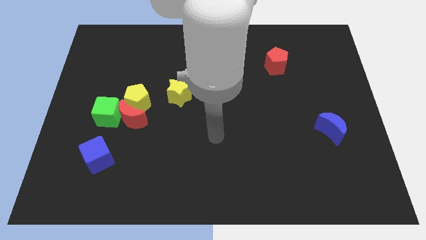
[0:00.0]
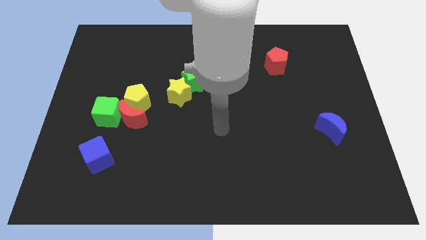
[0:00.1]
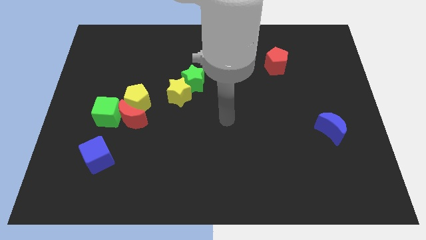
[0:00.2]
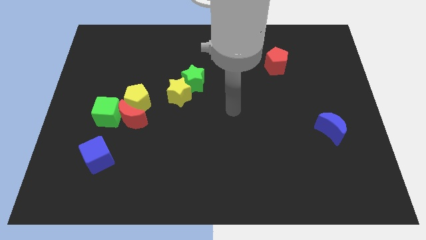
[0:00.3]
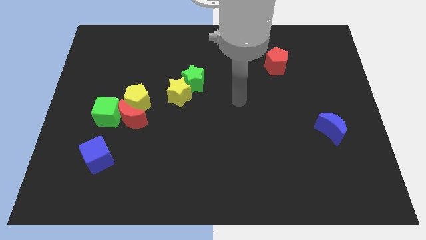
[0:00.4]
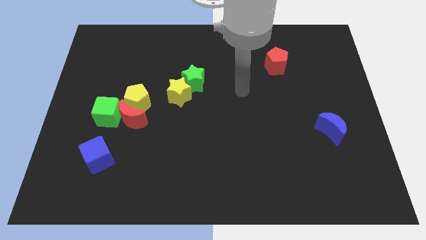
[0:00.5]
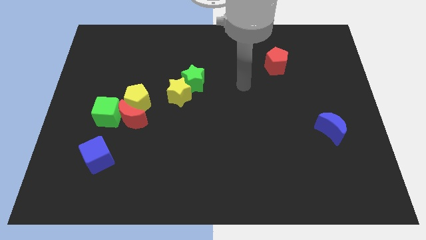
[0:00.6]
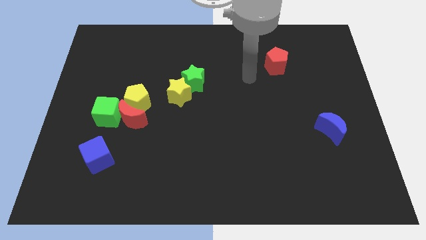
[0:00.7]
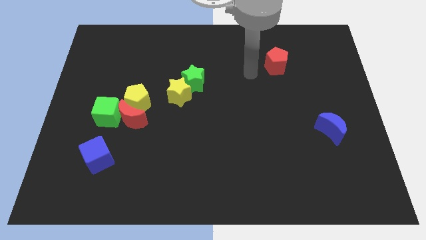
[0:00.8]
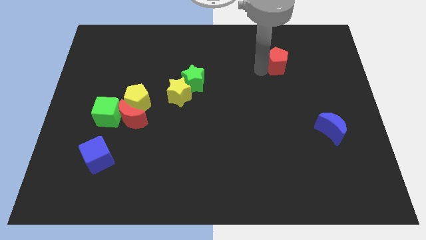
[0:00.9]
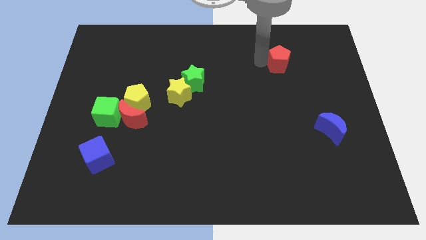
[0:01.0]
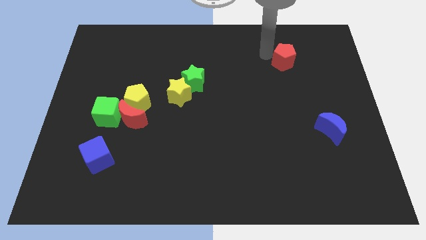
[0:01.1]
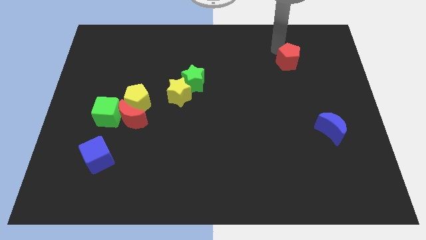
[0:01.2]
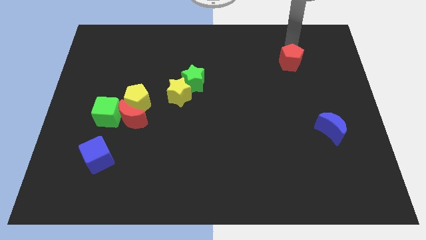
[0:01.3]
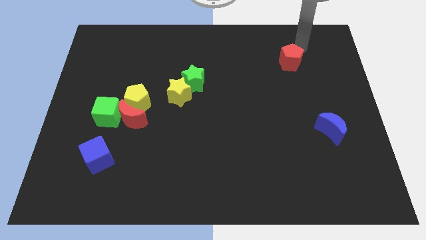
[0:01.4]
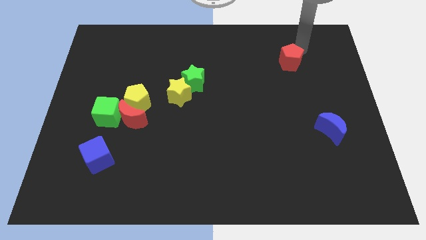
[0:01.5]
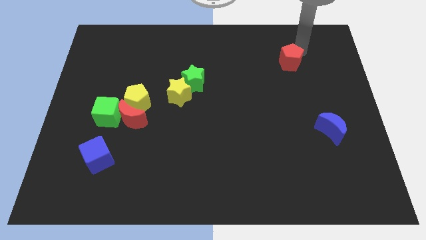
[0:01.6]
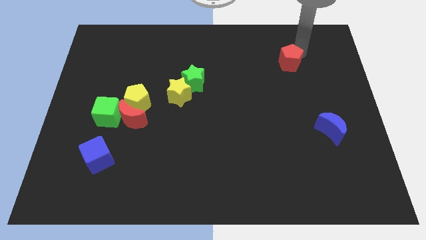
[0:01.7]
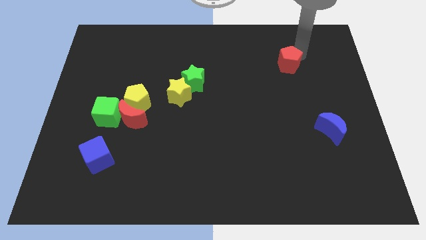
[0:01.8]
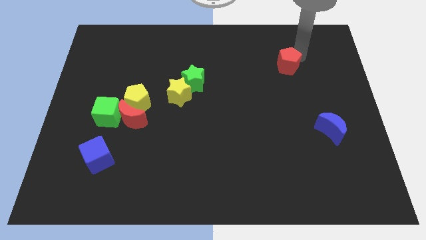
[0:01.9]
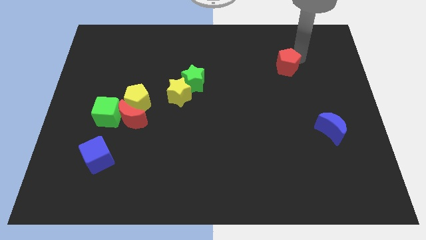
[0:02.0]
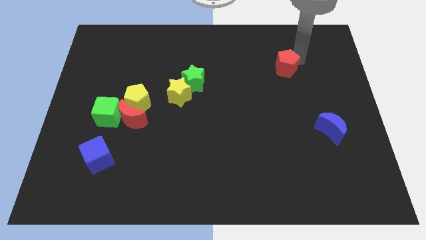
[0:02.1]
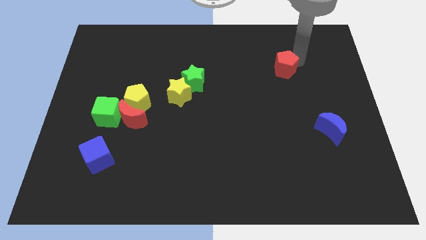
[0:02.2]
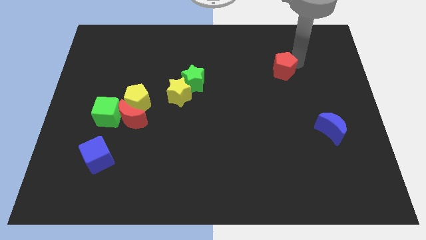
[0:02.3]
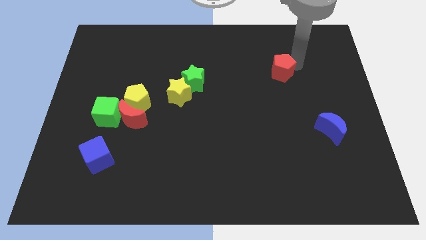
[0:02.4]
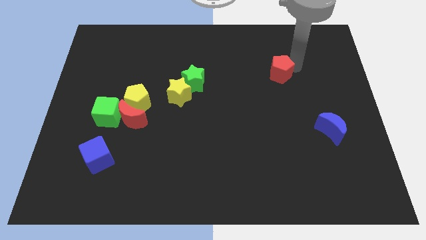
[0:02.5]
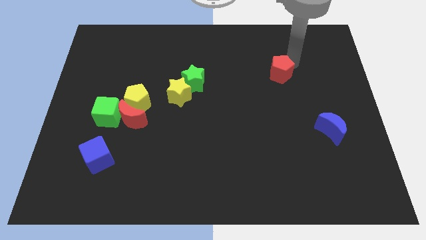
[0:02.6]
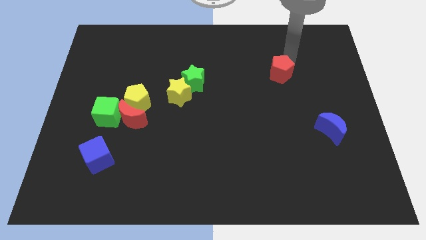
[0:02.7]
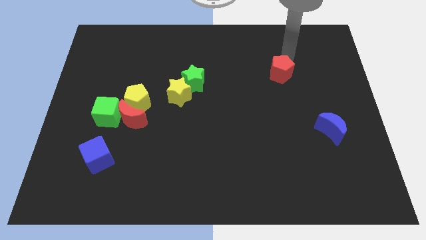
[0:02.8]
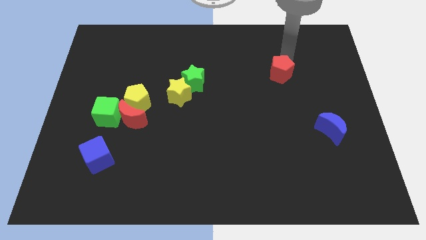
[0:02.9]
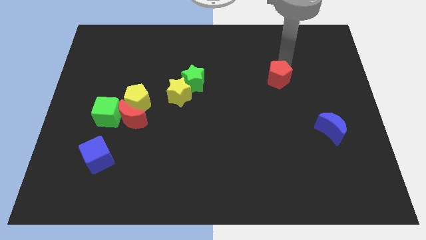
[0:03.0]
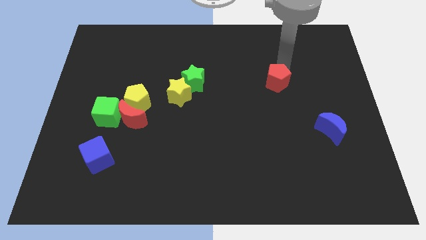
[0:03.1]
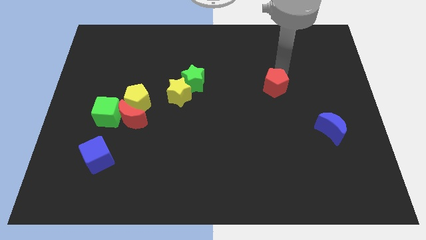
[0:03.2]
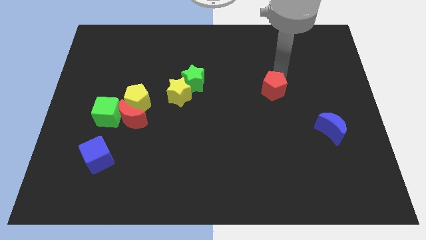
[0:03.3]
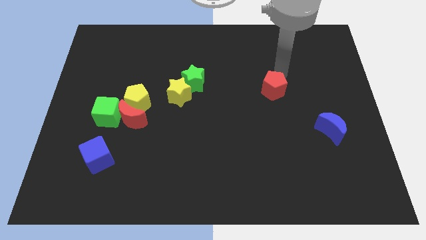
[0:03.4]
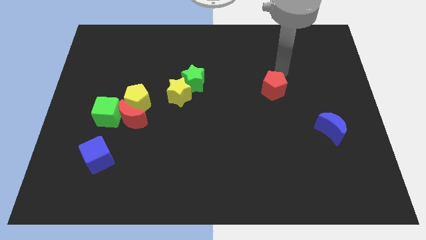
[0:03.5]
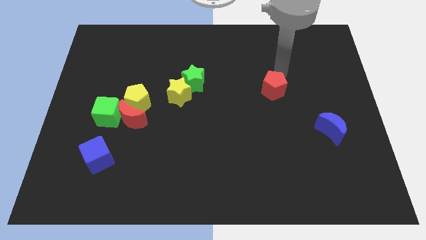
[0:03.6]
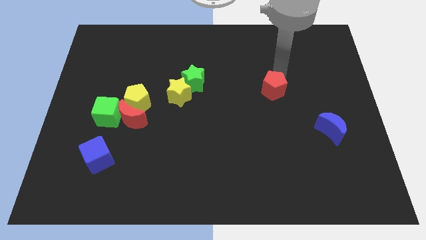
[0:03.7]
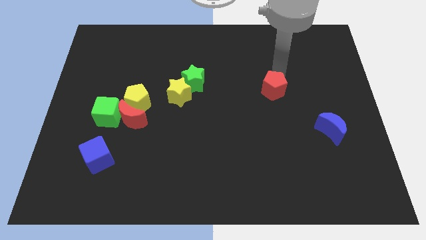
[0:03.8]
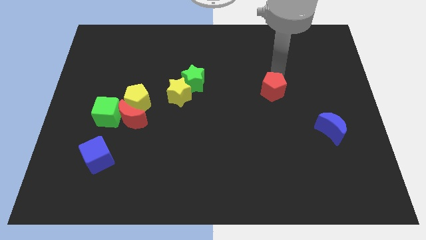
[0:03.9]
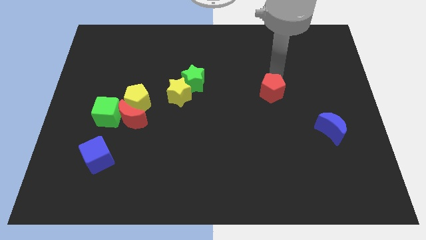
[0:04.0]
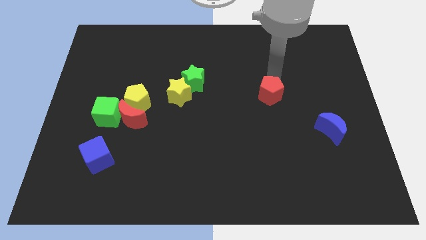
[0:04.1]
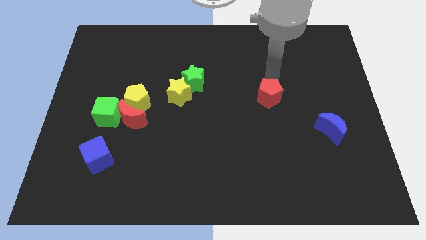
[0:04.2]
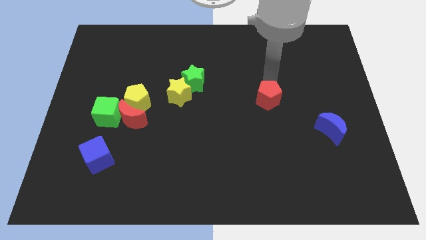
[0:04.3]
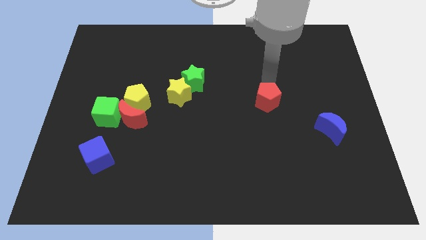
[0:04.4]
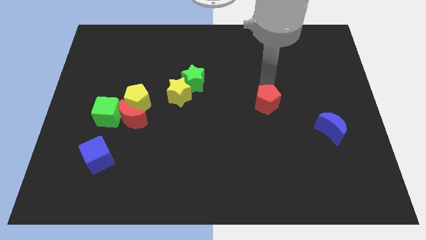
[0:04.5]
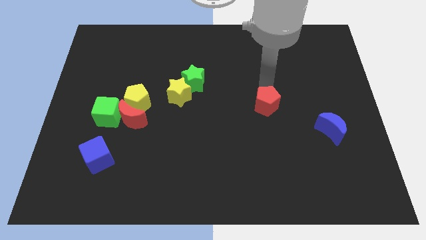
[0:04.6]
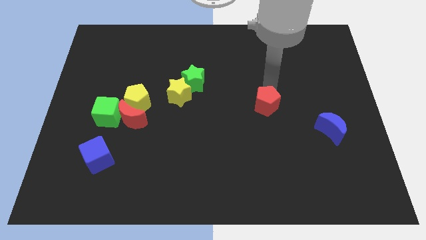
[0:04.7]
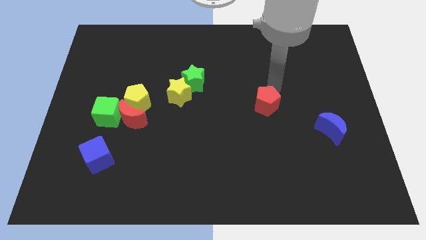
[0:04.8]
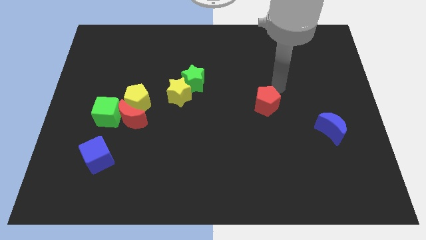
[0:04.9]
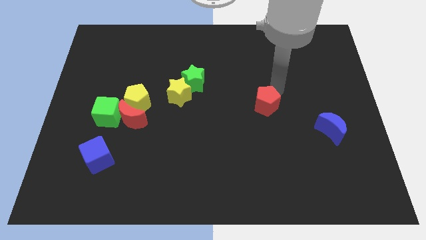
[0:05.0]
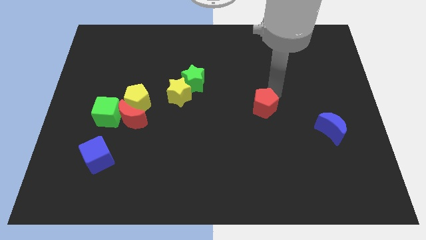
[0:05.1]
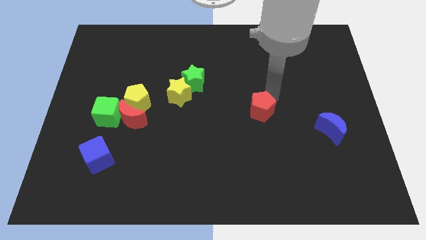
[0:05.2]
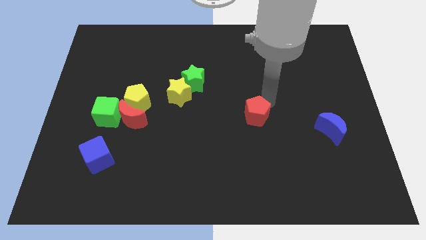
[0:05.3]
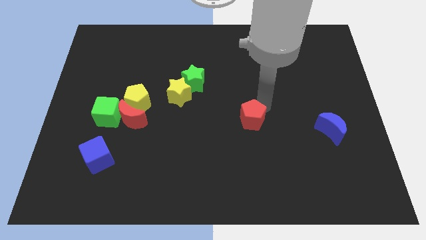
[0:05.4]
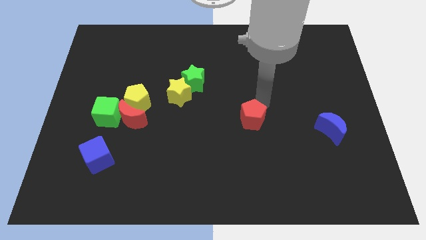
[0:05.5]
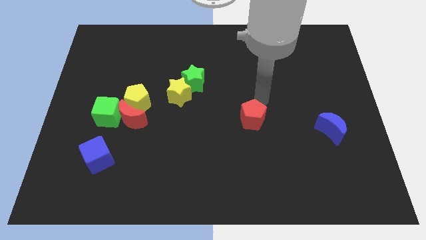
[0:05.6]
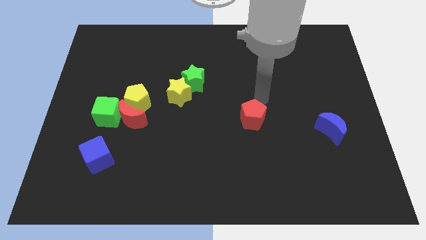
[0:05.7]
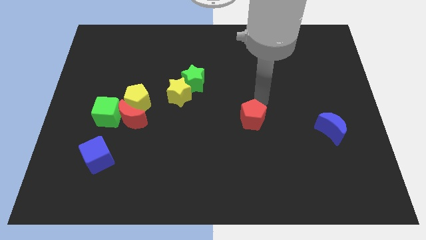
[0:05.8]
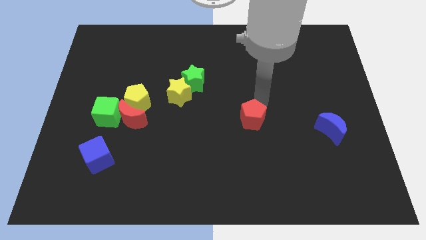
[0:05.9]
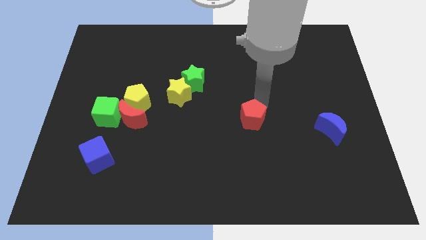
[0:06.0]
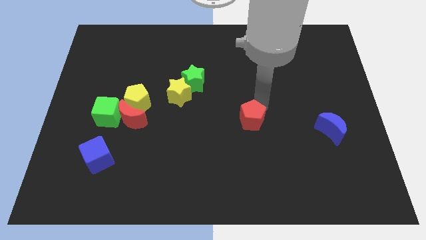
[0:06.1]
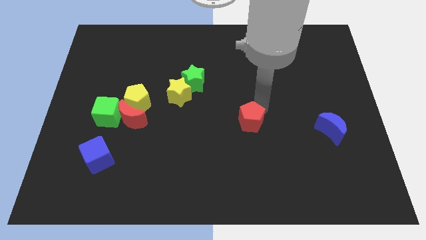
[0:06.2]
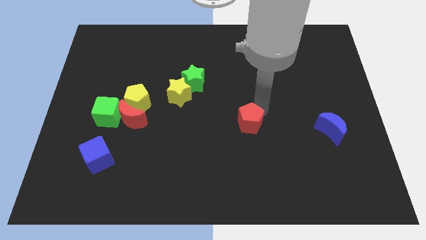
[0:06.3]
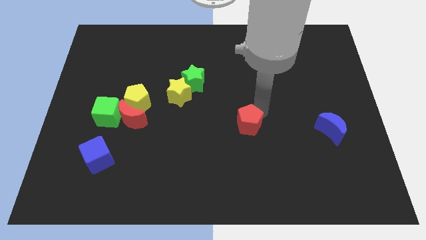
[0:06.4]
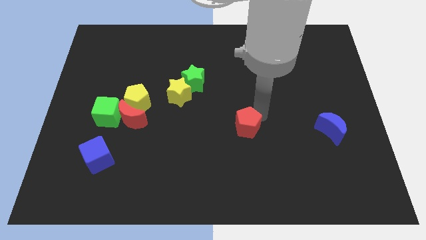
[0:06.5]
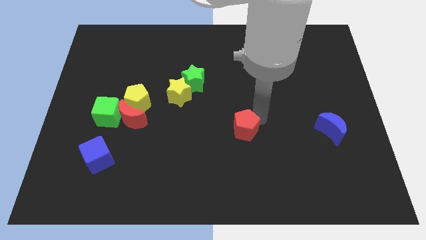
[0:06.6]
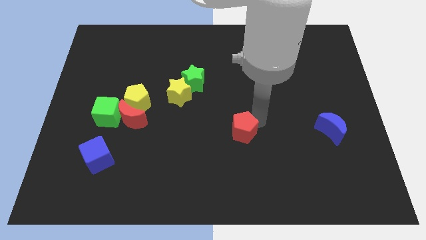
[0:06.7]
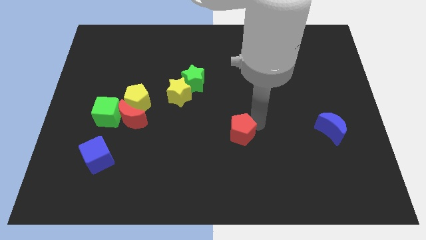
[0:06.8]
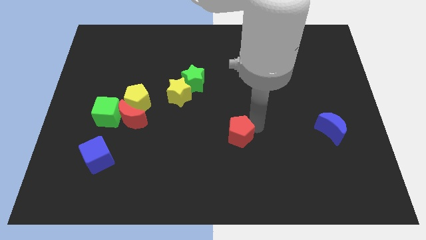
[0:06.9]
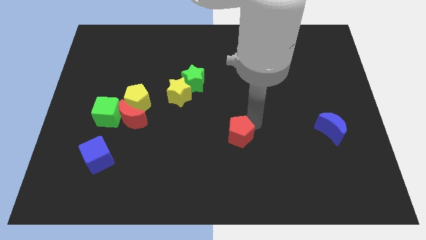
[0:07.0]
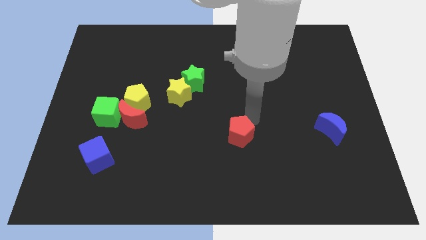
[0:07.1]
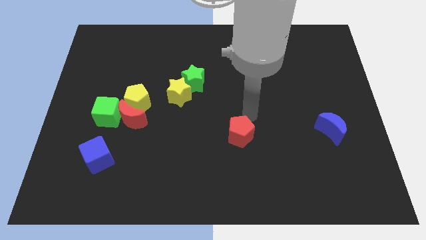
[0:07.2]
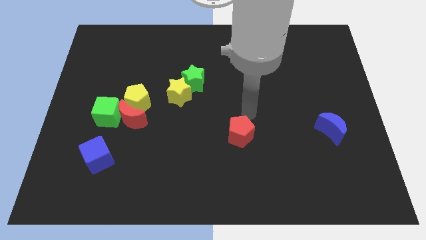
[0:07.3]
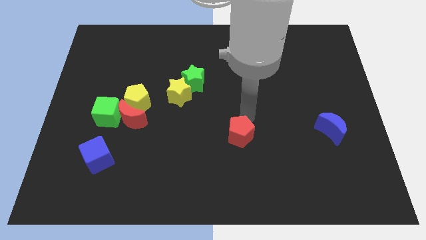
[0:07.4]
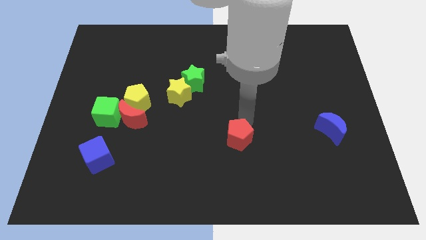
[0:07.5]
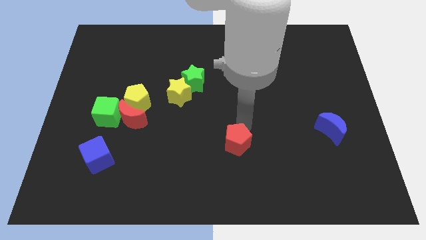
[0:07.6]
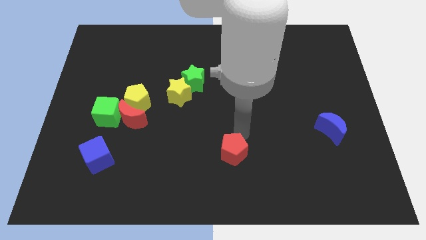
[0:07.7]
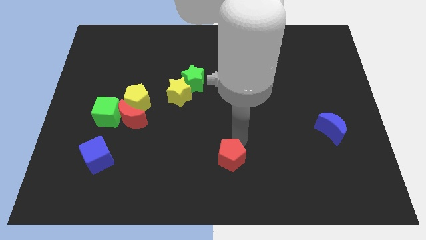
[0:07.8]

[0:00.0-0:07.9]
move the red pentagon to the bottom side
